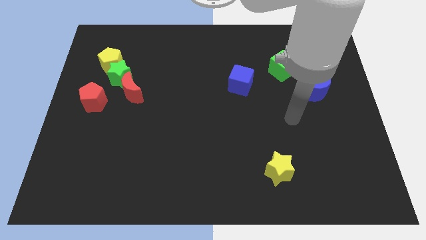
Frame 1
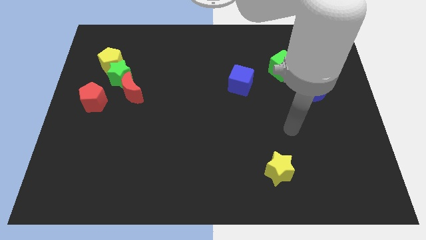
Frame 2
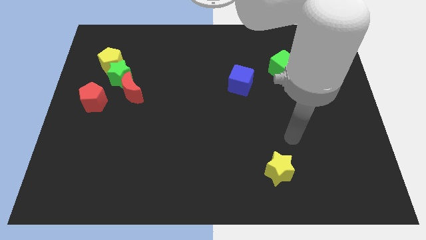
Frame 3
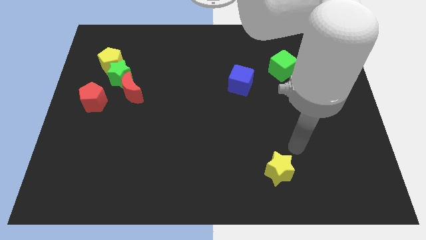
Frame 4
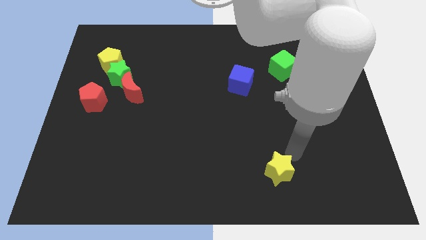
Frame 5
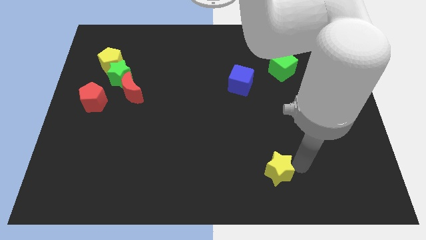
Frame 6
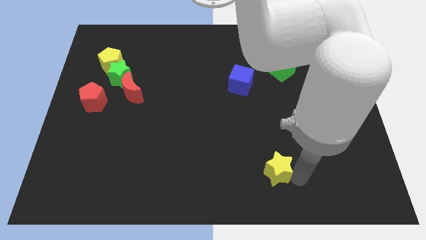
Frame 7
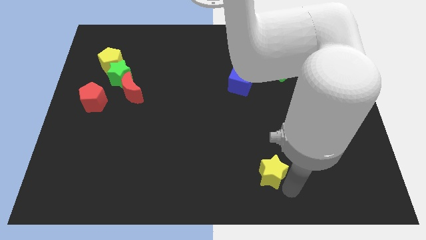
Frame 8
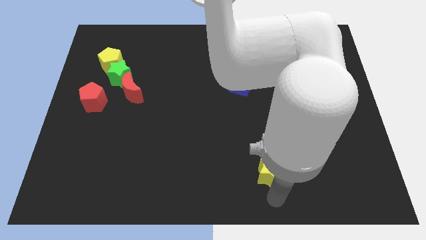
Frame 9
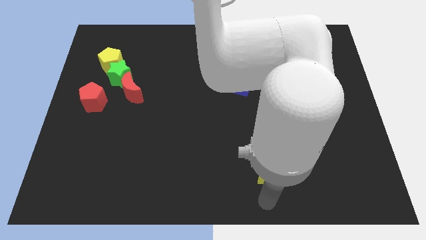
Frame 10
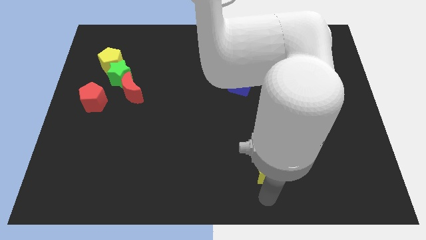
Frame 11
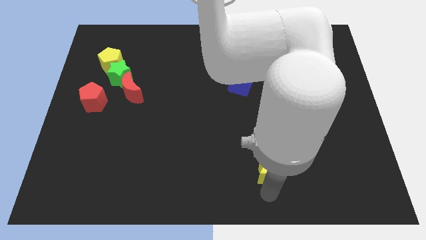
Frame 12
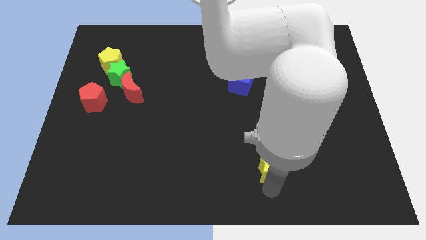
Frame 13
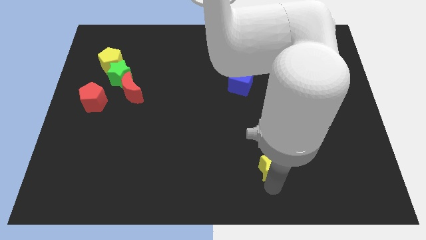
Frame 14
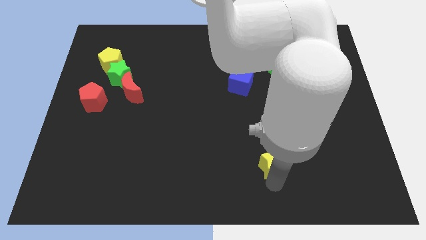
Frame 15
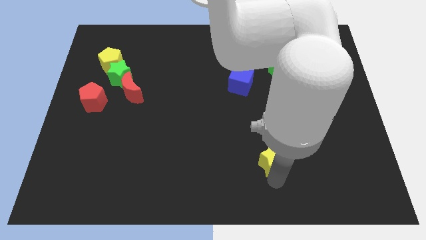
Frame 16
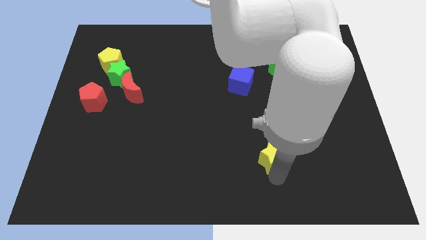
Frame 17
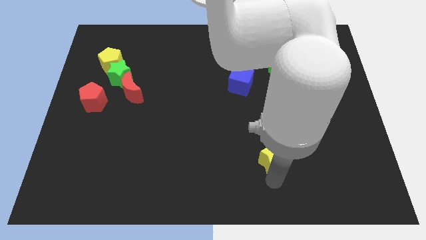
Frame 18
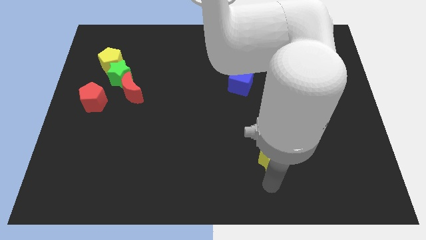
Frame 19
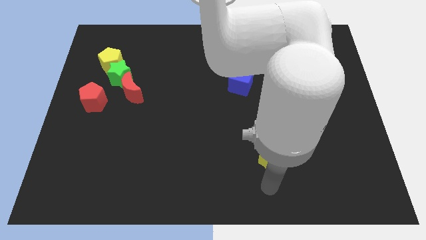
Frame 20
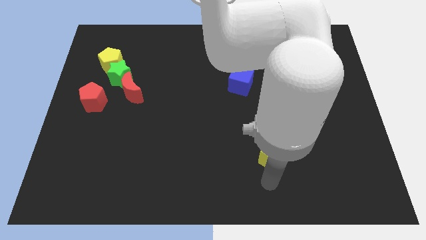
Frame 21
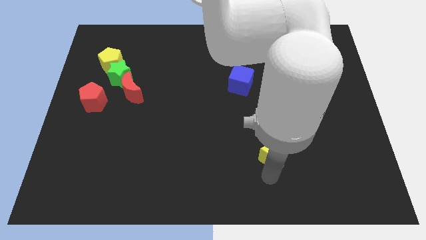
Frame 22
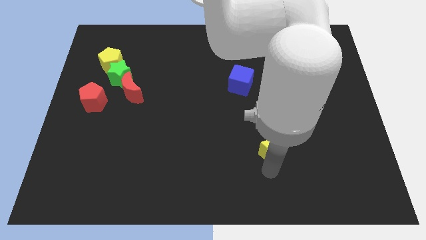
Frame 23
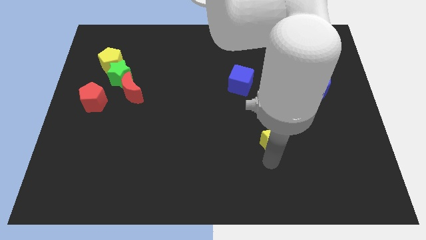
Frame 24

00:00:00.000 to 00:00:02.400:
slightly push the yellow star up

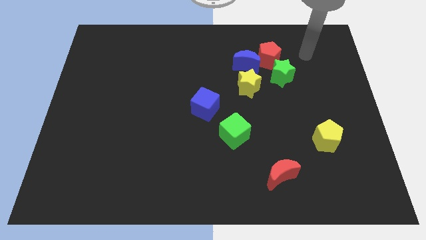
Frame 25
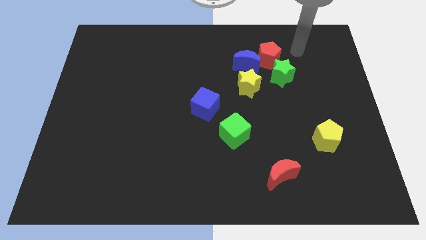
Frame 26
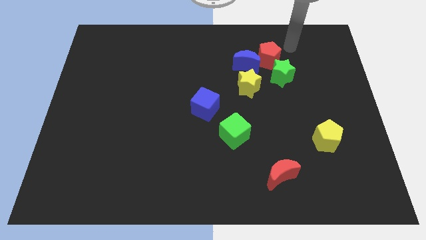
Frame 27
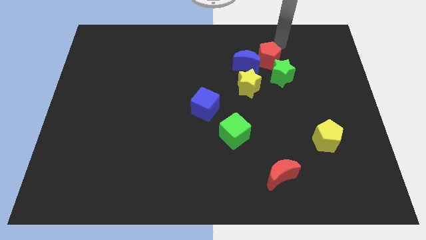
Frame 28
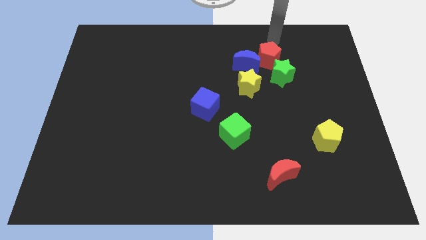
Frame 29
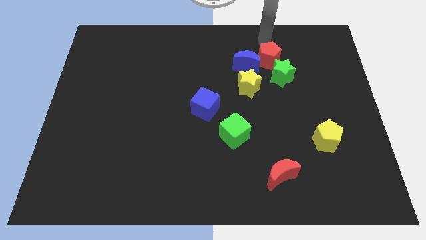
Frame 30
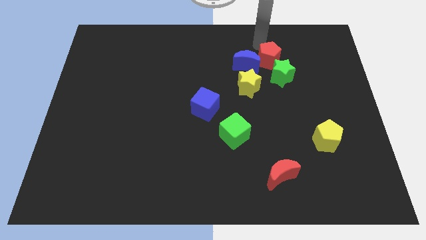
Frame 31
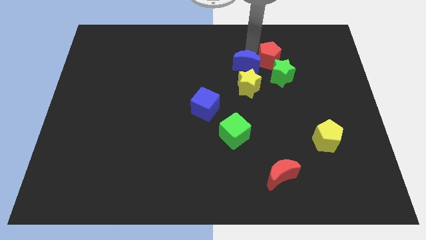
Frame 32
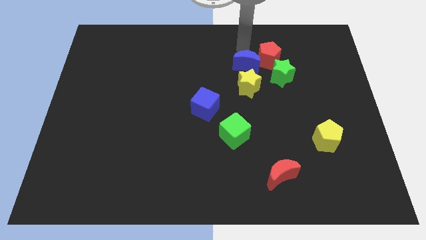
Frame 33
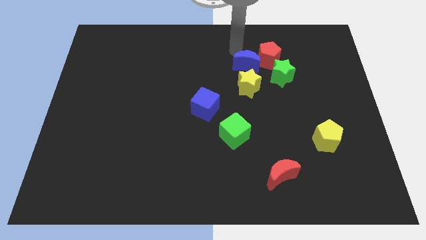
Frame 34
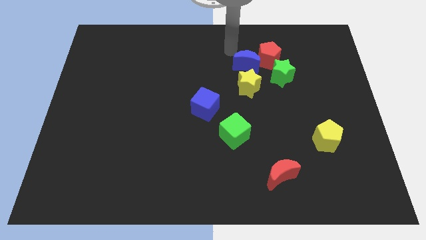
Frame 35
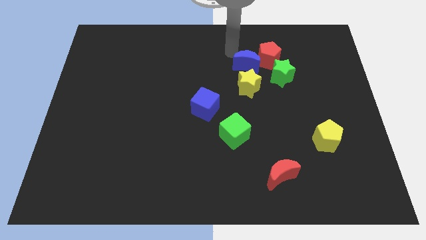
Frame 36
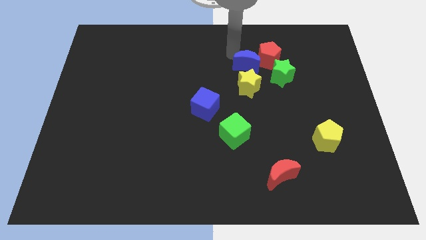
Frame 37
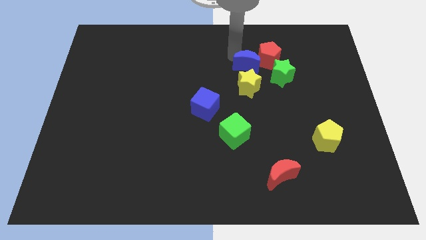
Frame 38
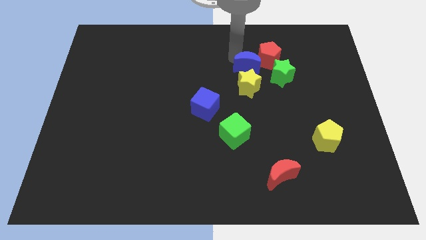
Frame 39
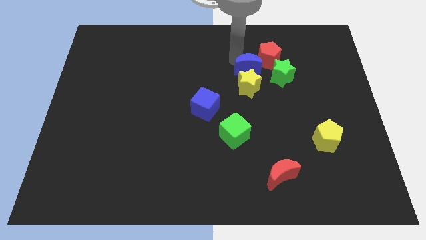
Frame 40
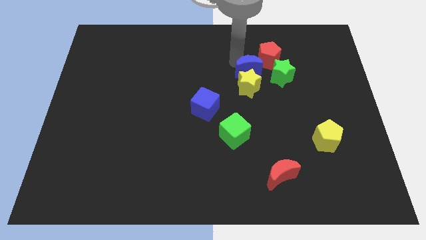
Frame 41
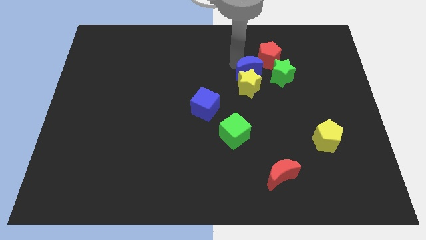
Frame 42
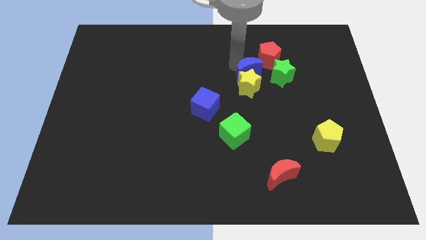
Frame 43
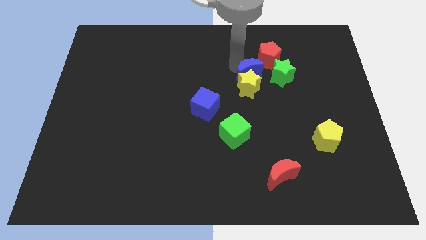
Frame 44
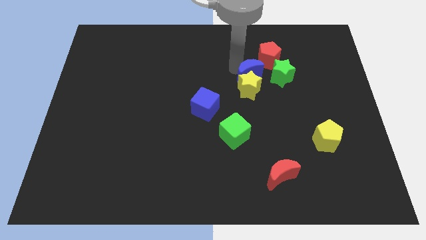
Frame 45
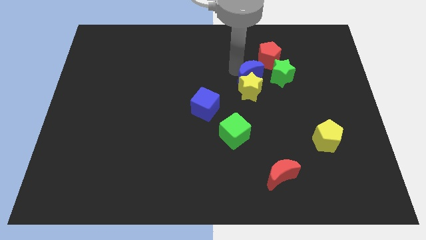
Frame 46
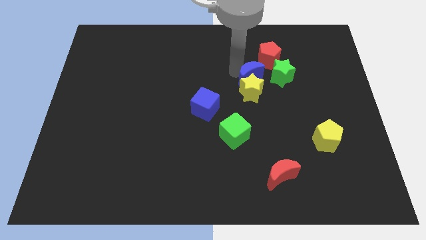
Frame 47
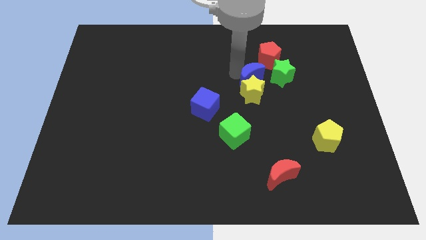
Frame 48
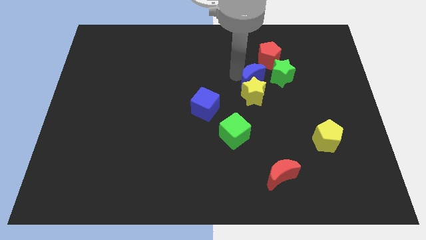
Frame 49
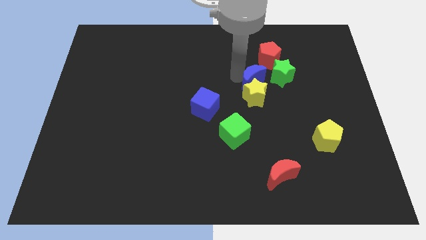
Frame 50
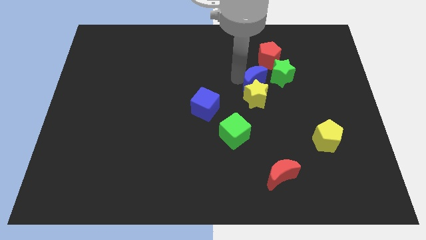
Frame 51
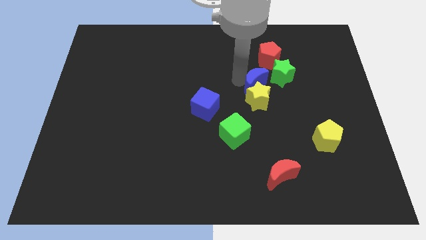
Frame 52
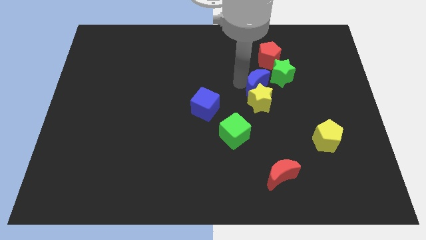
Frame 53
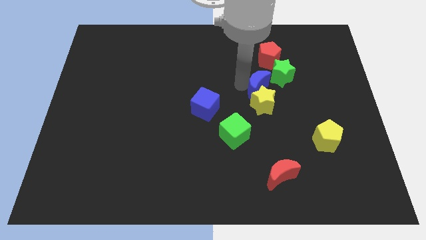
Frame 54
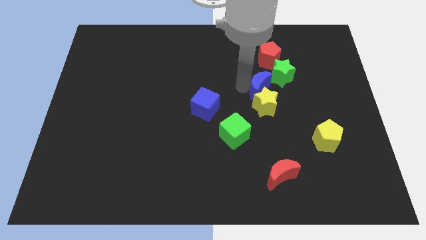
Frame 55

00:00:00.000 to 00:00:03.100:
push the blue moon diagonally downwards and to the right slightly

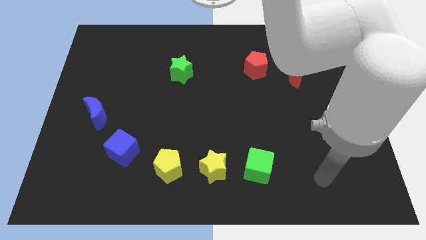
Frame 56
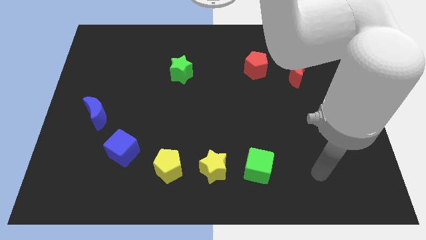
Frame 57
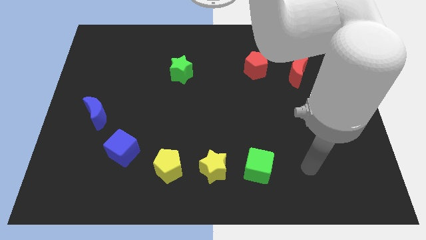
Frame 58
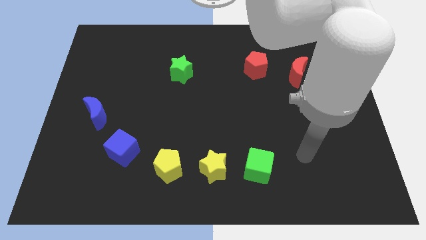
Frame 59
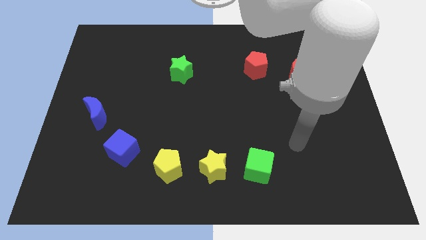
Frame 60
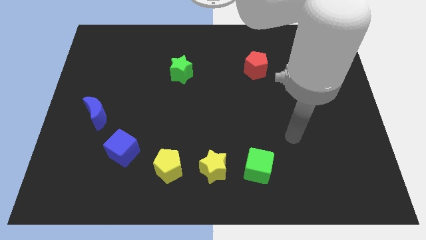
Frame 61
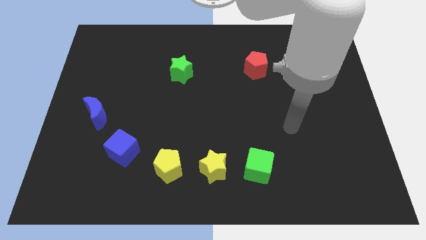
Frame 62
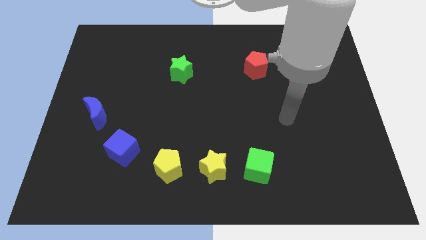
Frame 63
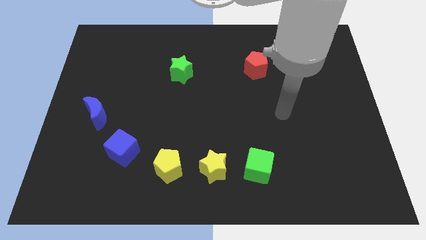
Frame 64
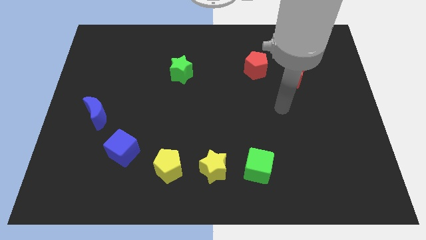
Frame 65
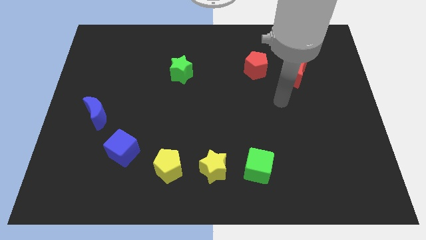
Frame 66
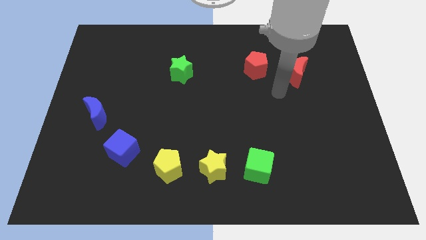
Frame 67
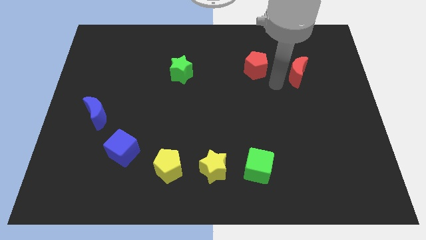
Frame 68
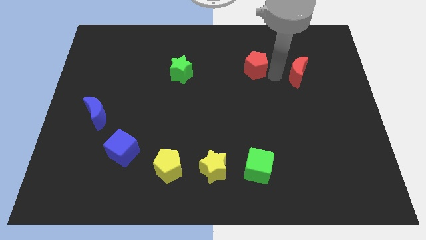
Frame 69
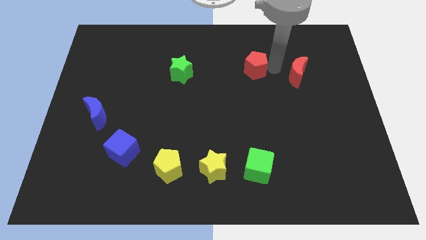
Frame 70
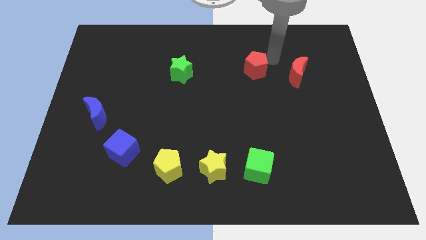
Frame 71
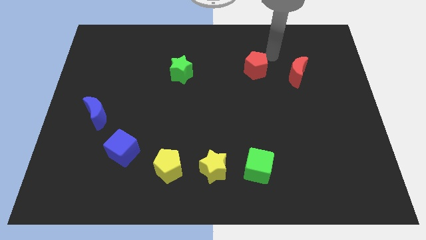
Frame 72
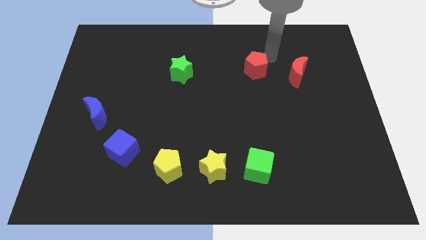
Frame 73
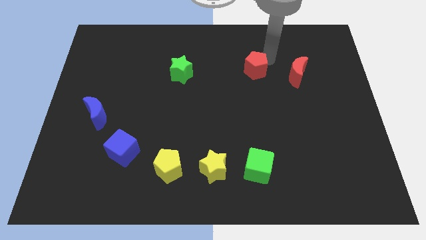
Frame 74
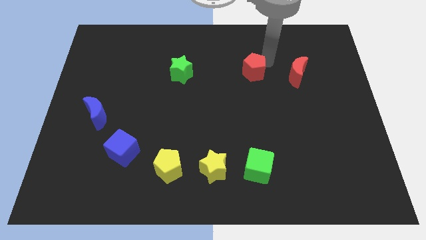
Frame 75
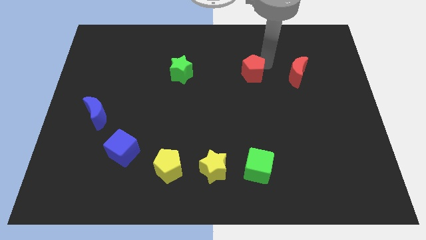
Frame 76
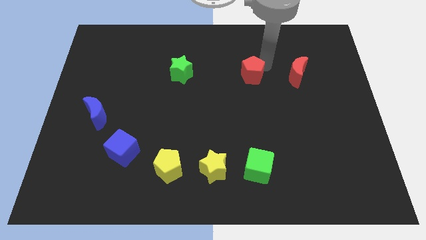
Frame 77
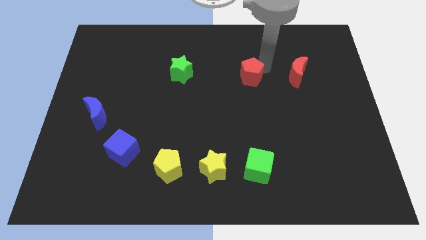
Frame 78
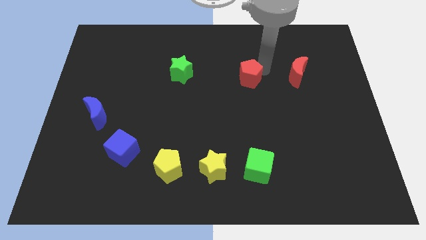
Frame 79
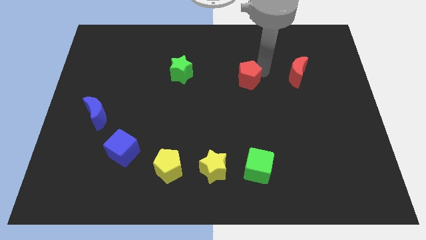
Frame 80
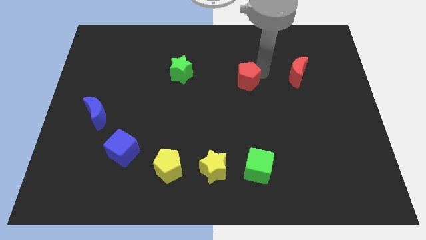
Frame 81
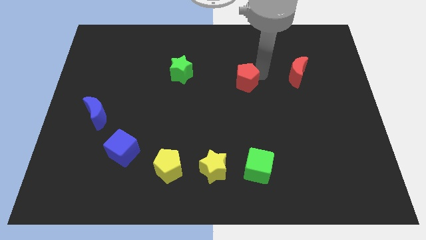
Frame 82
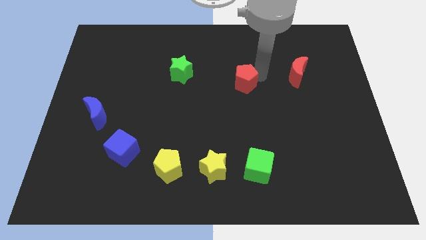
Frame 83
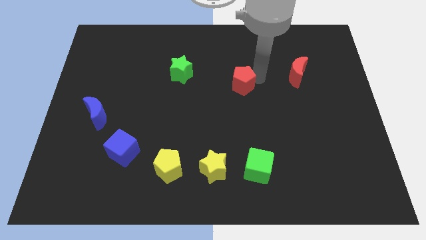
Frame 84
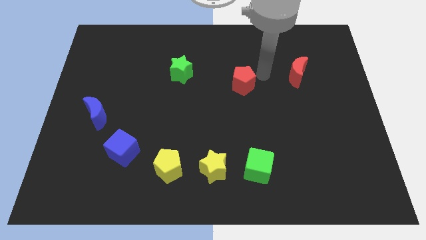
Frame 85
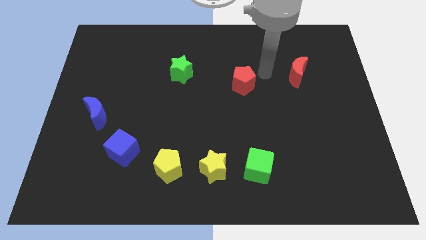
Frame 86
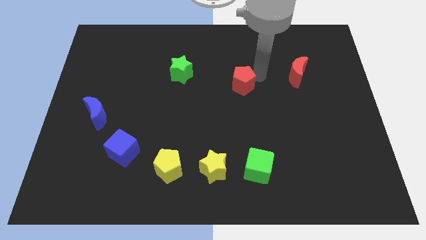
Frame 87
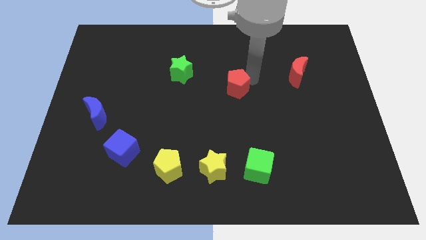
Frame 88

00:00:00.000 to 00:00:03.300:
slightly slide the red pentagon downwards and then left
